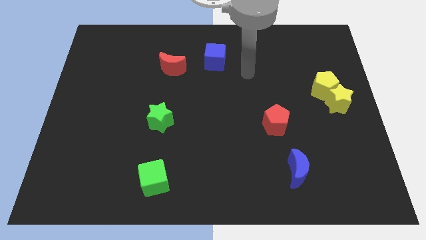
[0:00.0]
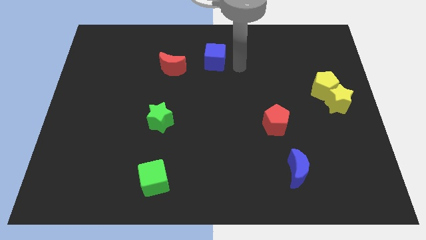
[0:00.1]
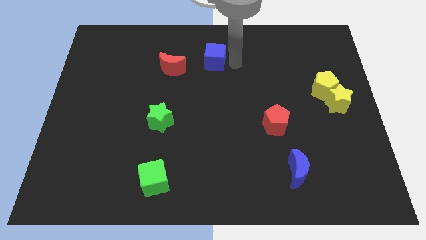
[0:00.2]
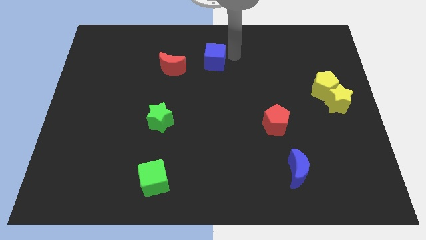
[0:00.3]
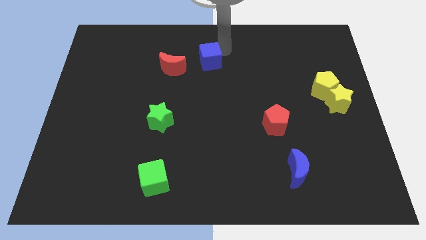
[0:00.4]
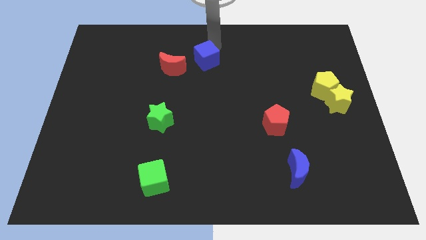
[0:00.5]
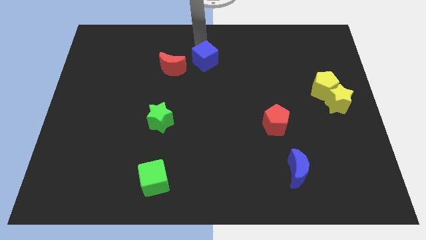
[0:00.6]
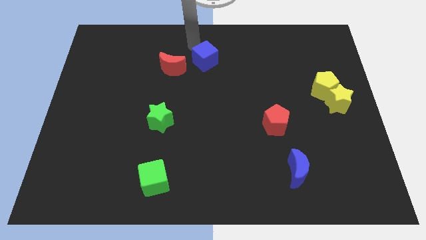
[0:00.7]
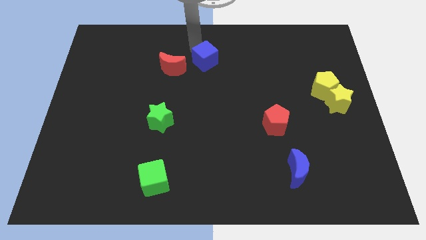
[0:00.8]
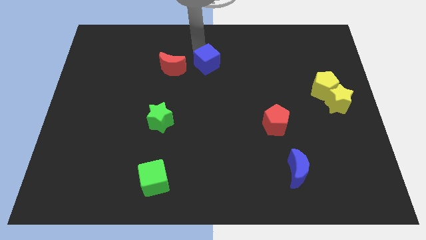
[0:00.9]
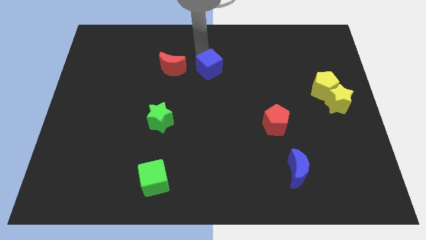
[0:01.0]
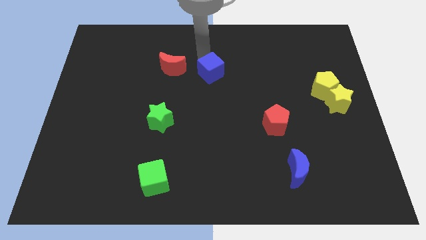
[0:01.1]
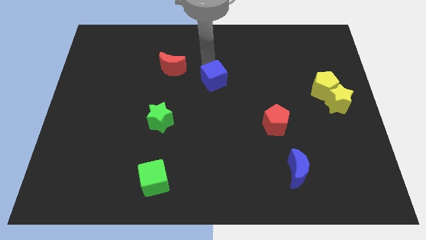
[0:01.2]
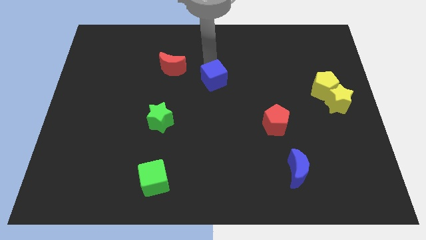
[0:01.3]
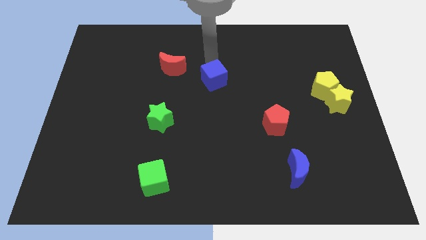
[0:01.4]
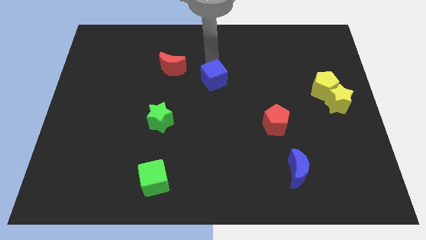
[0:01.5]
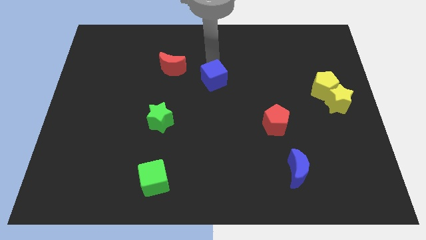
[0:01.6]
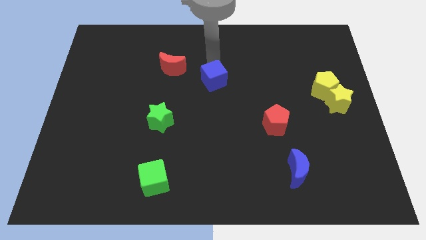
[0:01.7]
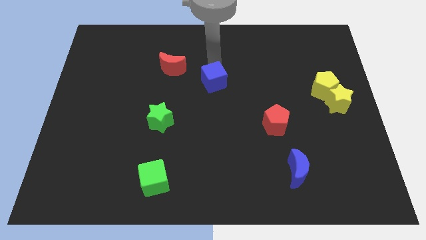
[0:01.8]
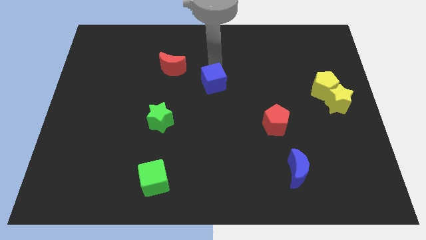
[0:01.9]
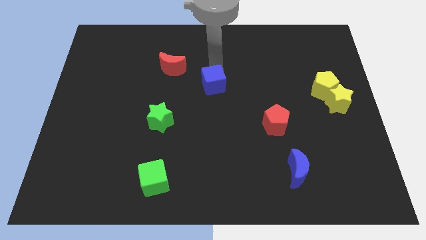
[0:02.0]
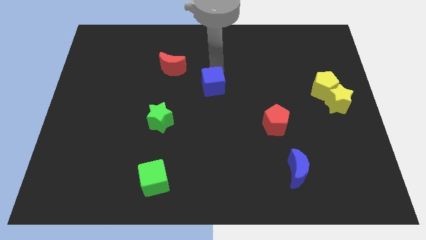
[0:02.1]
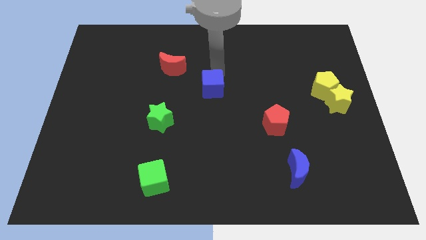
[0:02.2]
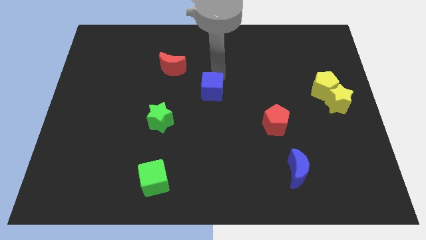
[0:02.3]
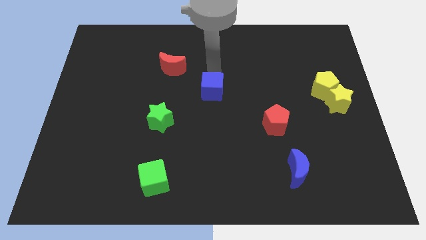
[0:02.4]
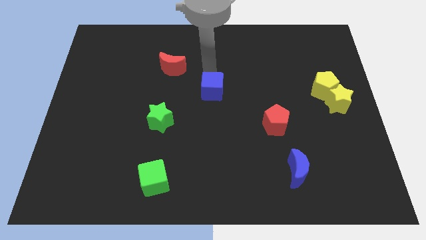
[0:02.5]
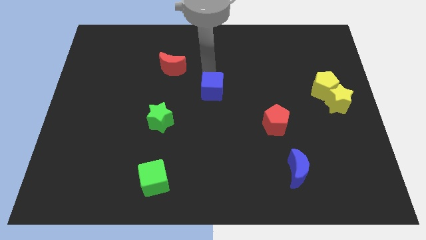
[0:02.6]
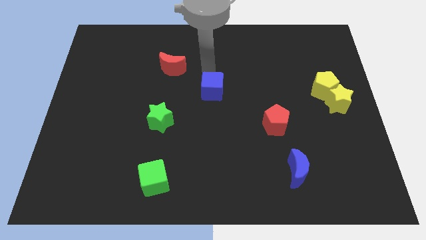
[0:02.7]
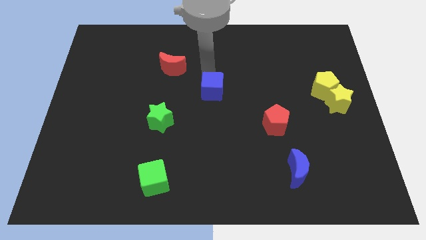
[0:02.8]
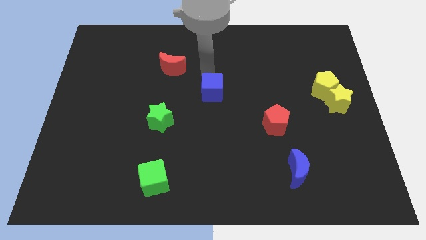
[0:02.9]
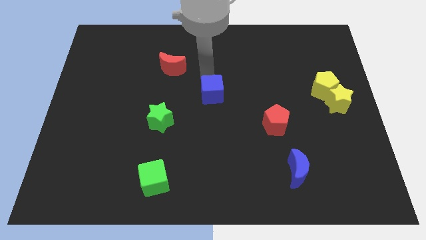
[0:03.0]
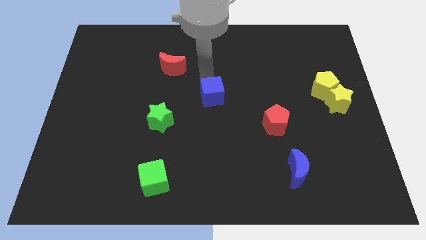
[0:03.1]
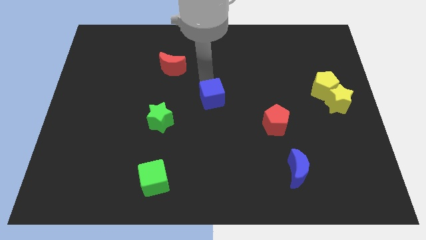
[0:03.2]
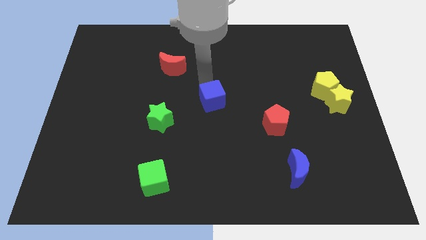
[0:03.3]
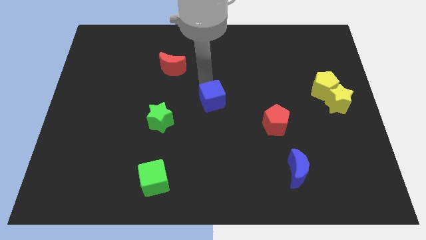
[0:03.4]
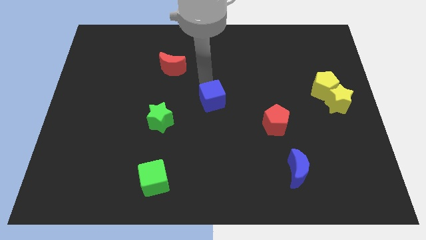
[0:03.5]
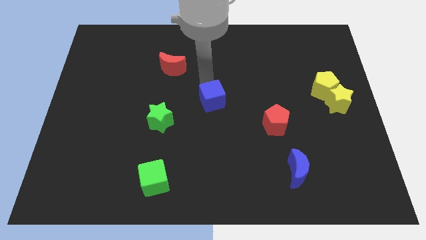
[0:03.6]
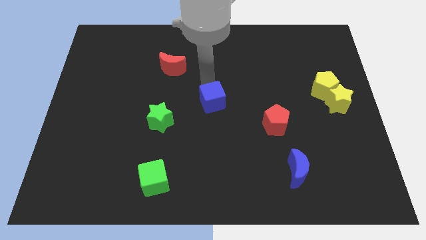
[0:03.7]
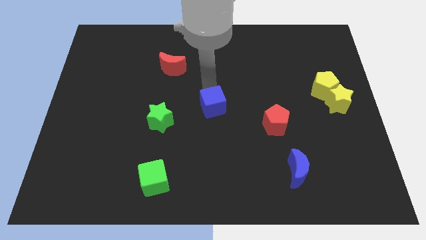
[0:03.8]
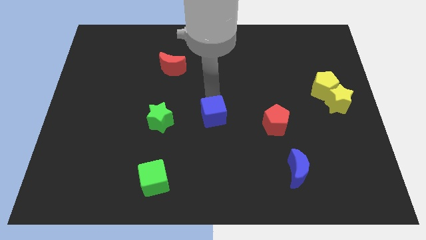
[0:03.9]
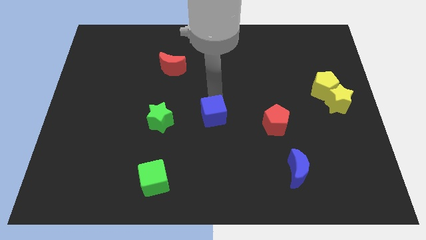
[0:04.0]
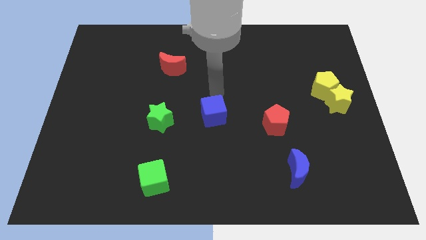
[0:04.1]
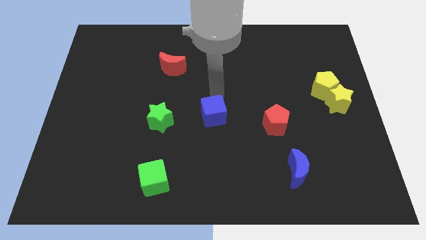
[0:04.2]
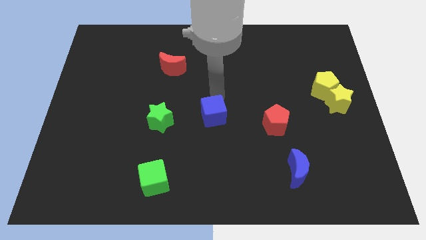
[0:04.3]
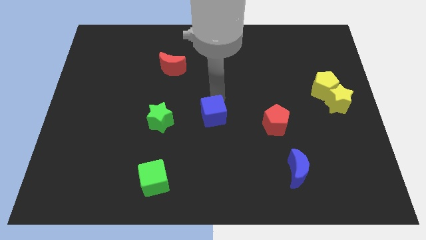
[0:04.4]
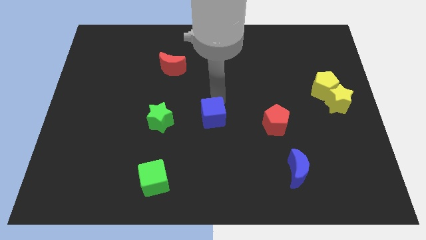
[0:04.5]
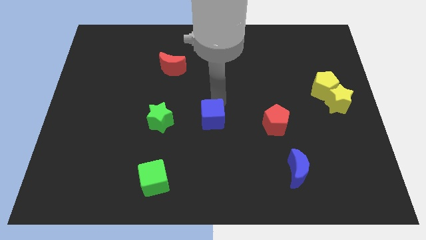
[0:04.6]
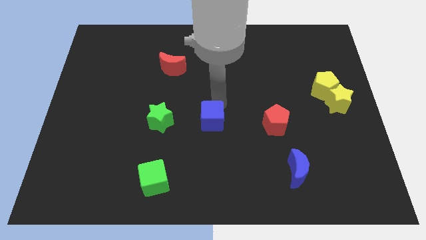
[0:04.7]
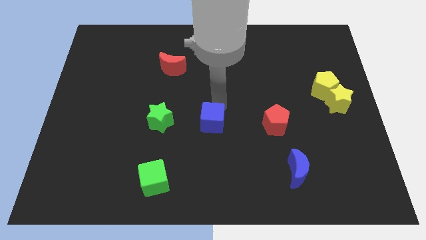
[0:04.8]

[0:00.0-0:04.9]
slide the blue cube downwards

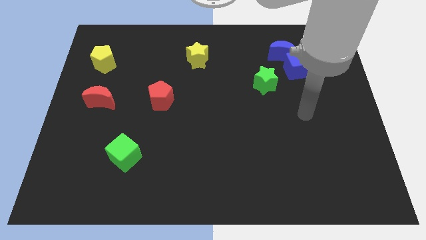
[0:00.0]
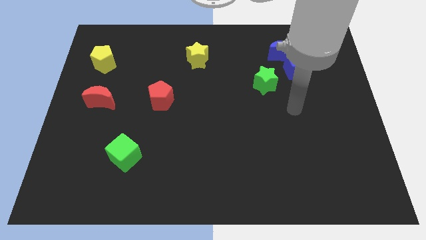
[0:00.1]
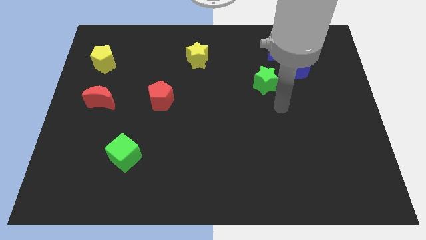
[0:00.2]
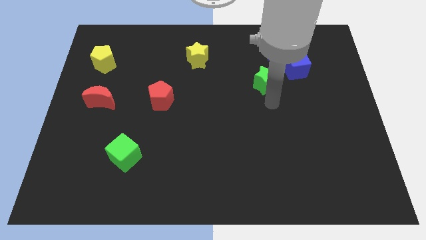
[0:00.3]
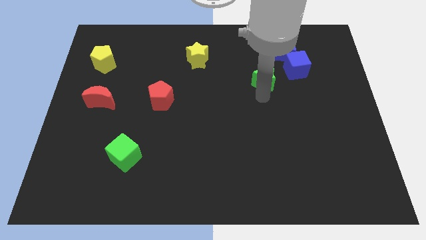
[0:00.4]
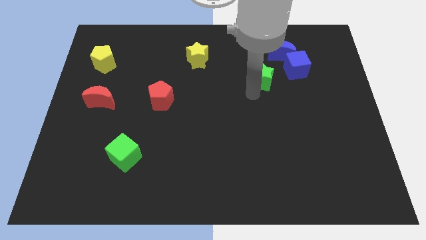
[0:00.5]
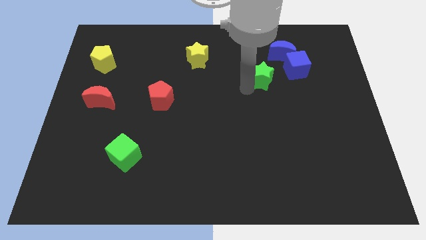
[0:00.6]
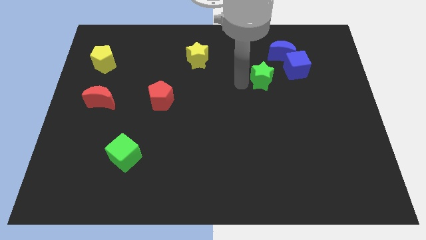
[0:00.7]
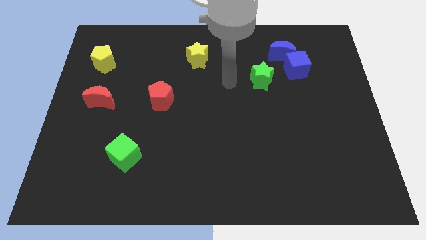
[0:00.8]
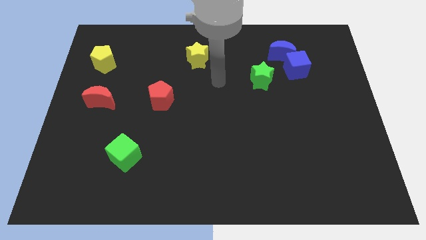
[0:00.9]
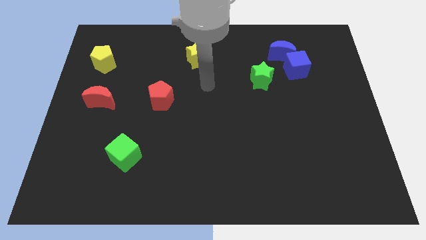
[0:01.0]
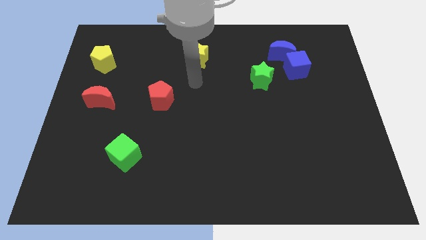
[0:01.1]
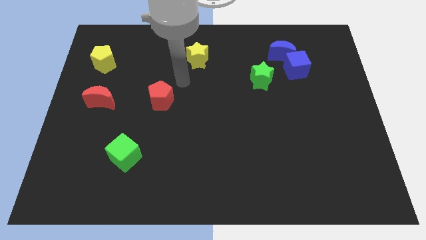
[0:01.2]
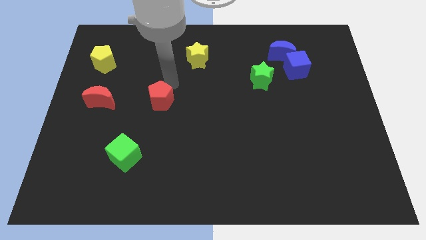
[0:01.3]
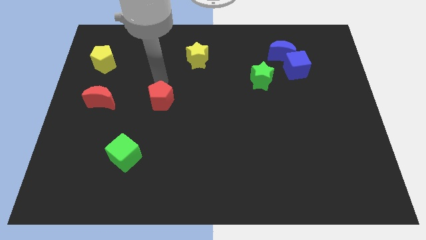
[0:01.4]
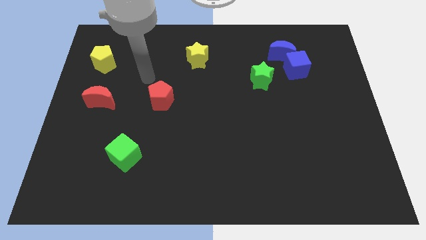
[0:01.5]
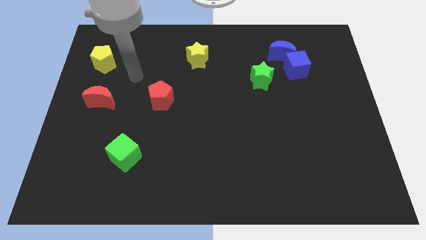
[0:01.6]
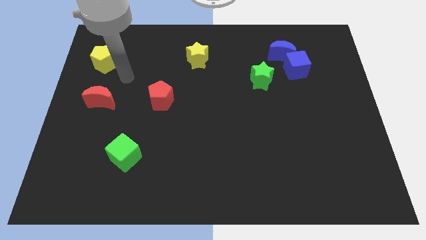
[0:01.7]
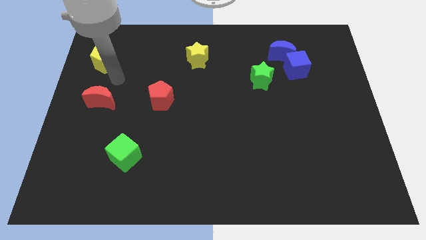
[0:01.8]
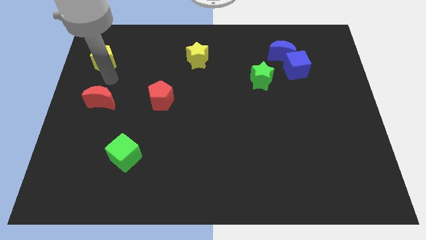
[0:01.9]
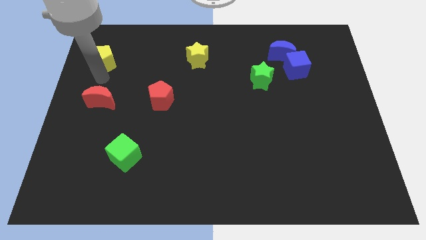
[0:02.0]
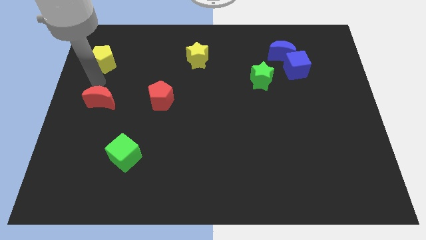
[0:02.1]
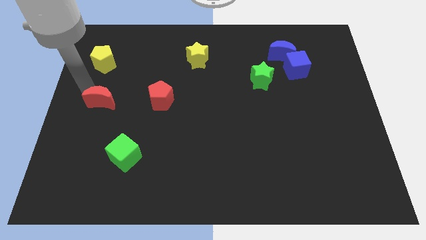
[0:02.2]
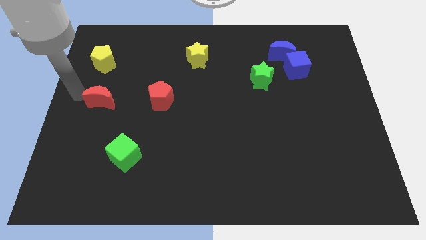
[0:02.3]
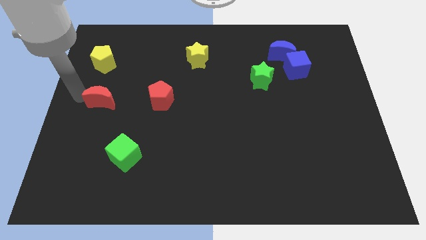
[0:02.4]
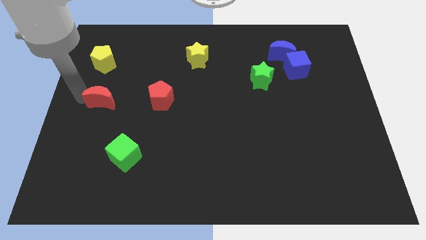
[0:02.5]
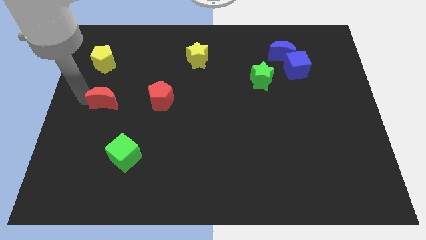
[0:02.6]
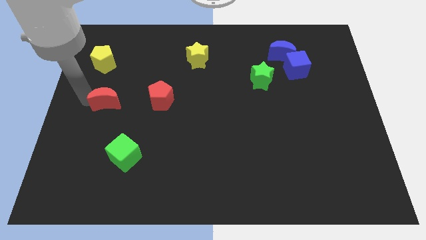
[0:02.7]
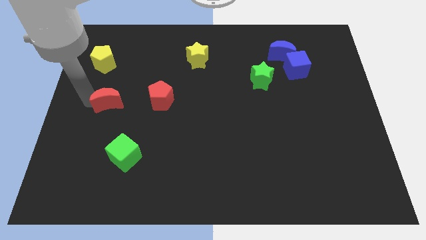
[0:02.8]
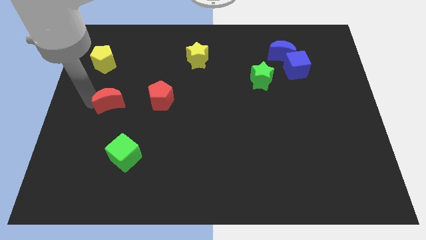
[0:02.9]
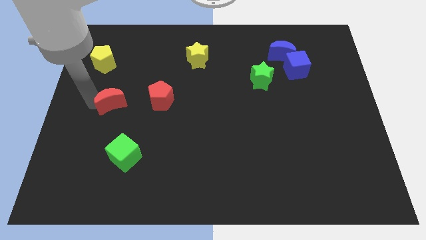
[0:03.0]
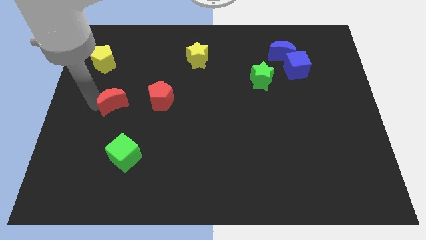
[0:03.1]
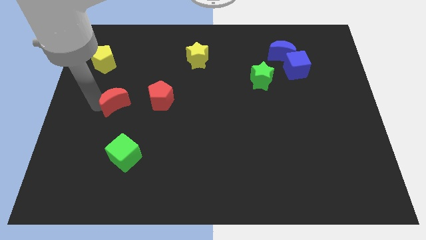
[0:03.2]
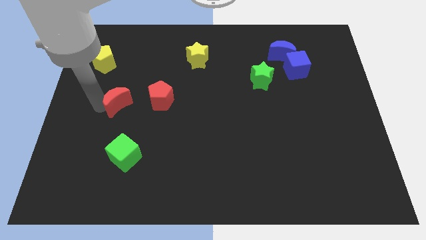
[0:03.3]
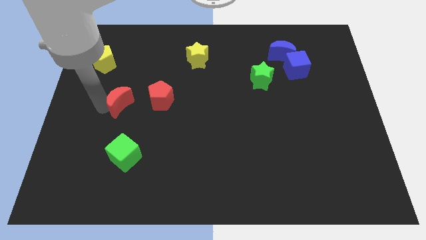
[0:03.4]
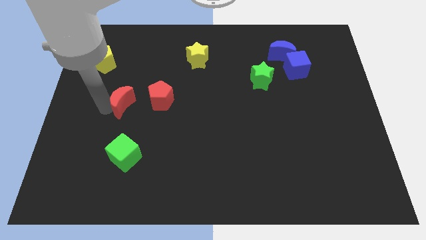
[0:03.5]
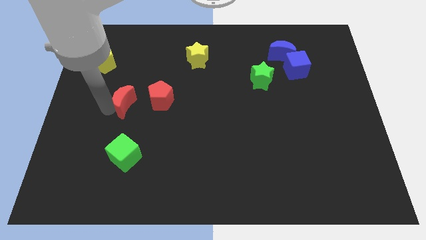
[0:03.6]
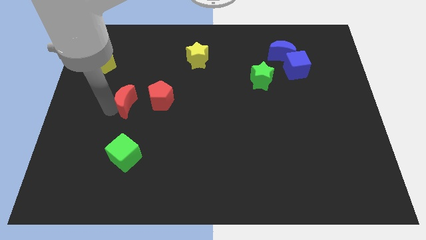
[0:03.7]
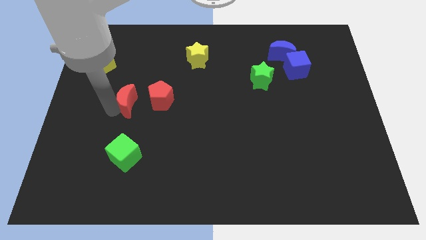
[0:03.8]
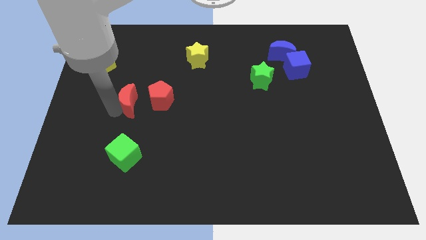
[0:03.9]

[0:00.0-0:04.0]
slightly push the red moon right
